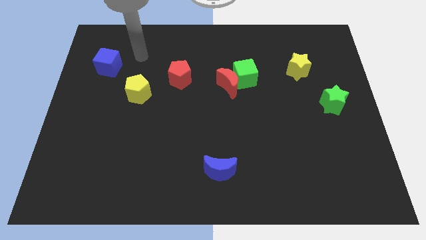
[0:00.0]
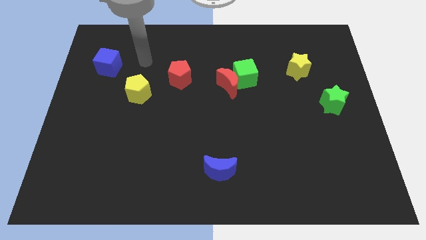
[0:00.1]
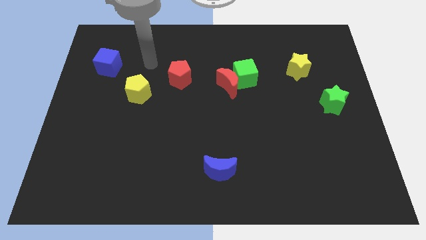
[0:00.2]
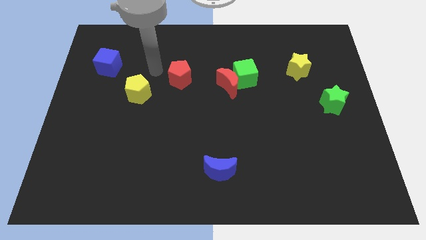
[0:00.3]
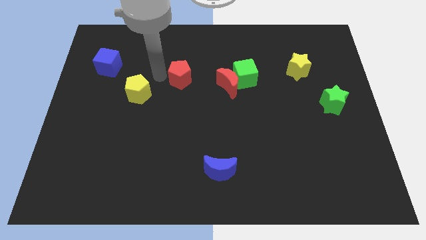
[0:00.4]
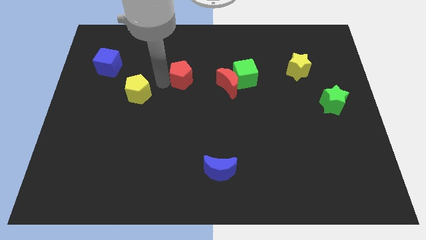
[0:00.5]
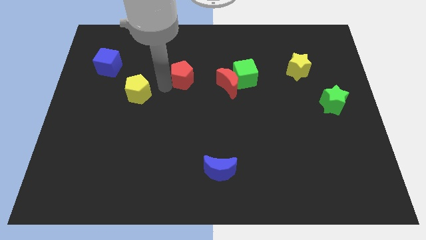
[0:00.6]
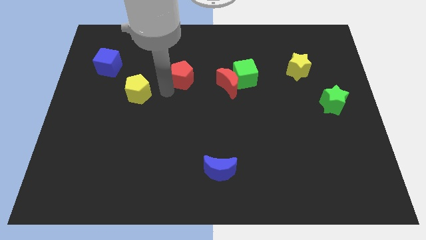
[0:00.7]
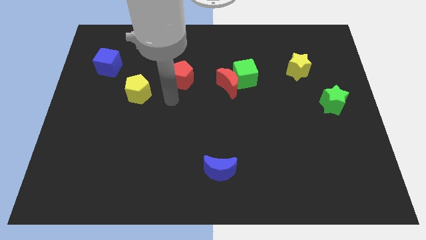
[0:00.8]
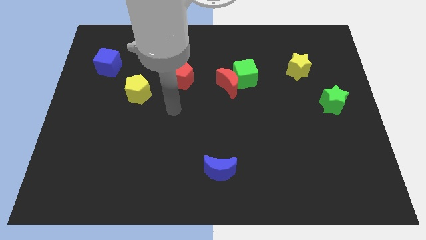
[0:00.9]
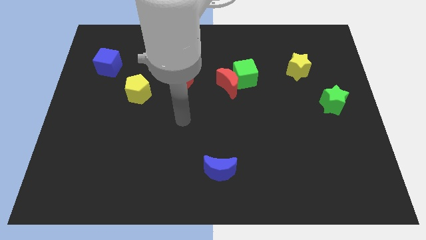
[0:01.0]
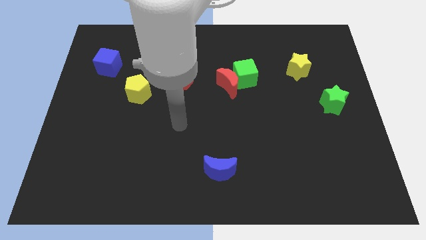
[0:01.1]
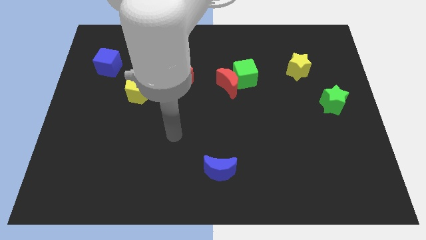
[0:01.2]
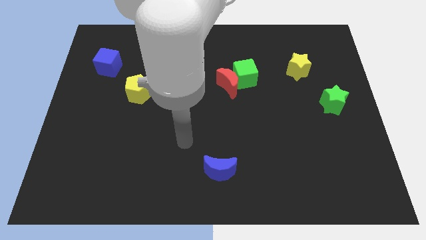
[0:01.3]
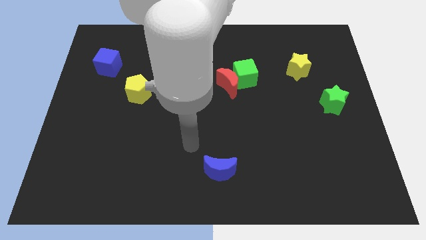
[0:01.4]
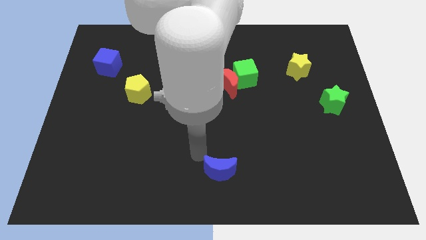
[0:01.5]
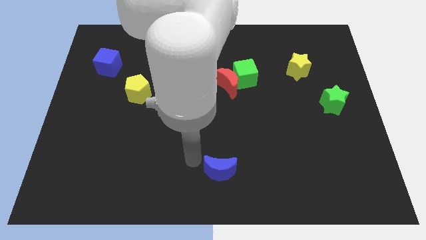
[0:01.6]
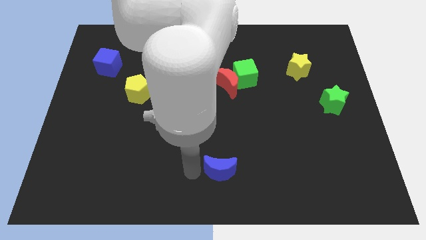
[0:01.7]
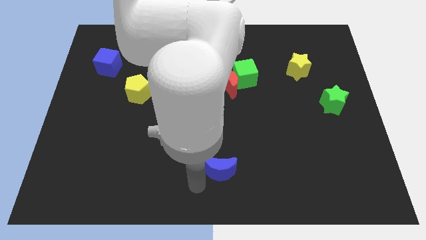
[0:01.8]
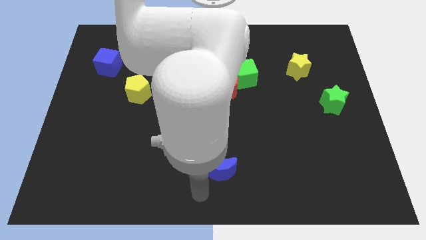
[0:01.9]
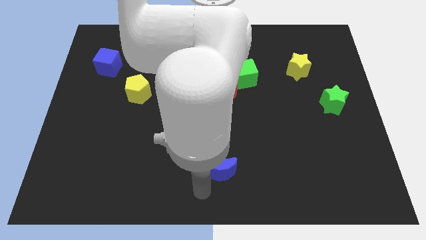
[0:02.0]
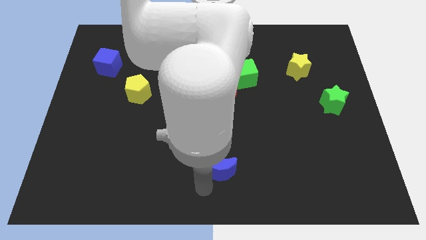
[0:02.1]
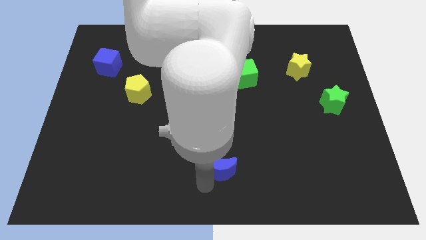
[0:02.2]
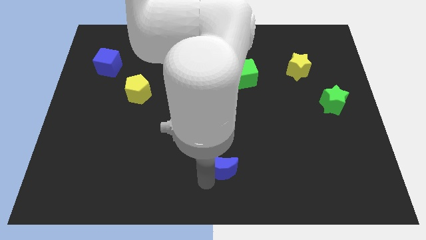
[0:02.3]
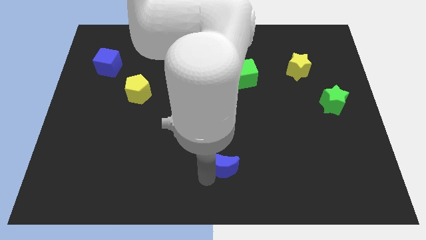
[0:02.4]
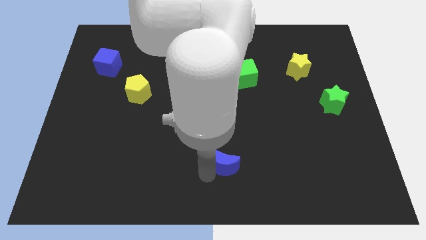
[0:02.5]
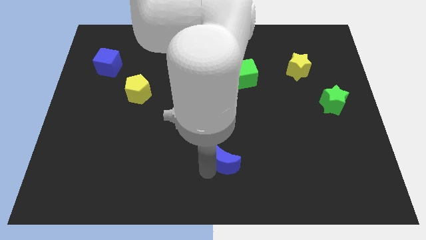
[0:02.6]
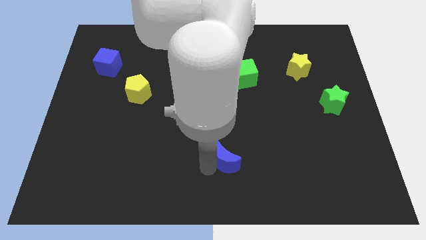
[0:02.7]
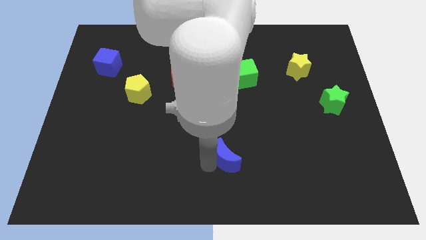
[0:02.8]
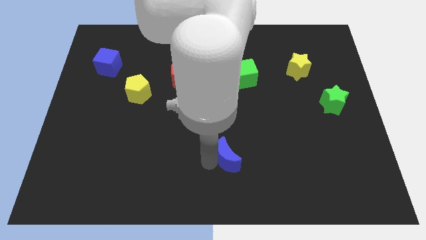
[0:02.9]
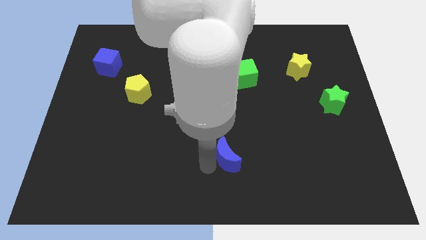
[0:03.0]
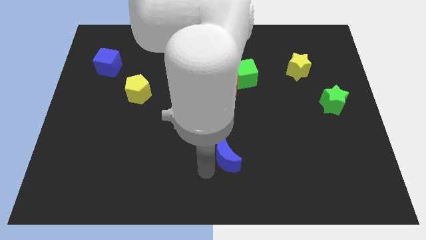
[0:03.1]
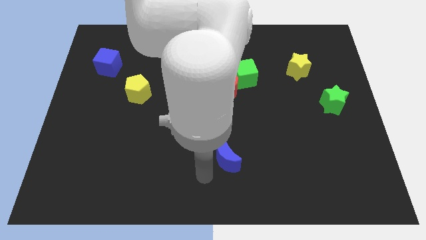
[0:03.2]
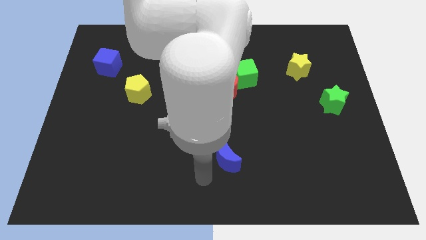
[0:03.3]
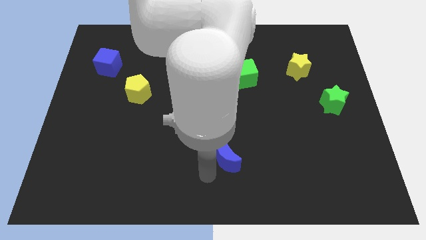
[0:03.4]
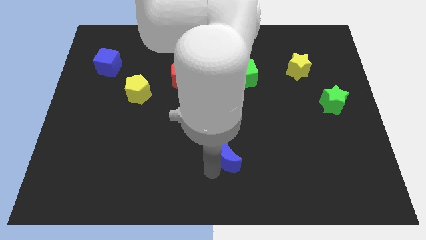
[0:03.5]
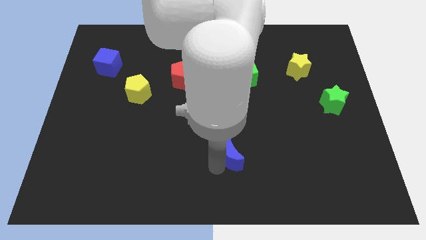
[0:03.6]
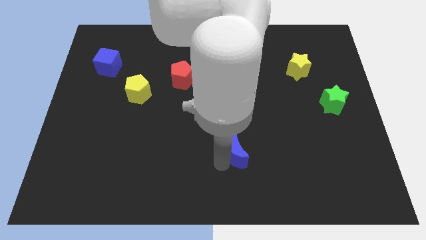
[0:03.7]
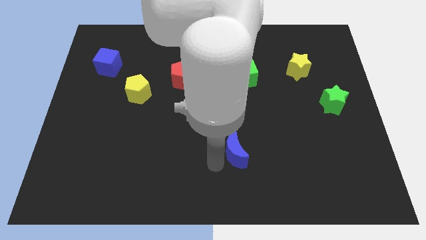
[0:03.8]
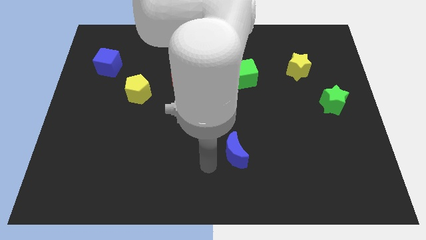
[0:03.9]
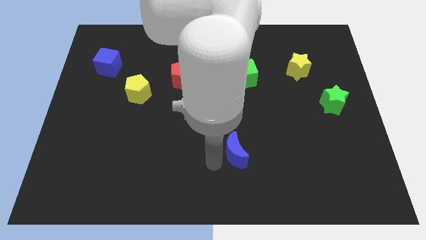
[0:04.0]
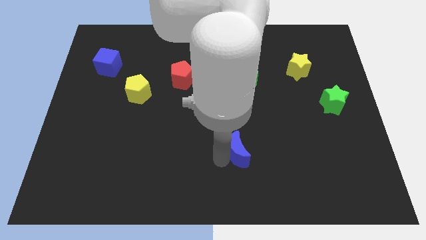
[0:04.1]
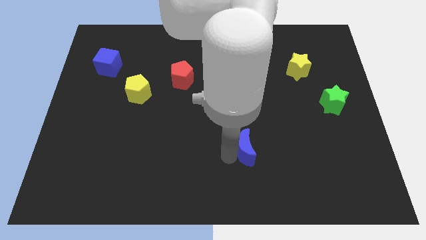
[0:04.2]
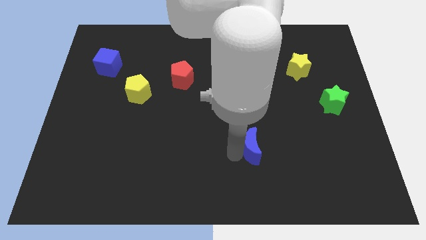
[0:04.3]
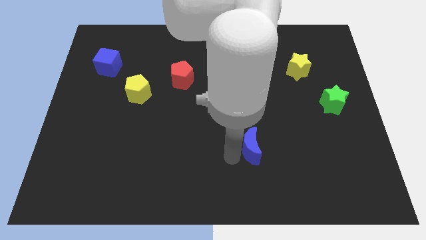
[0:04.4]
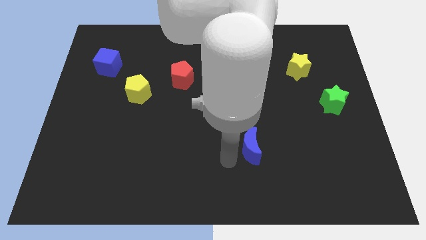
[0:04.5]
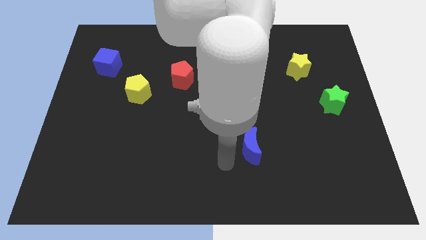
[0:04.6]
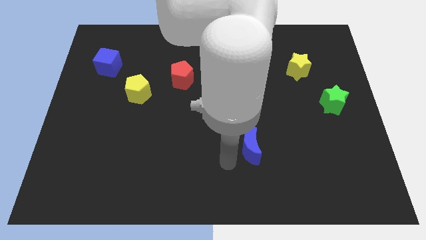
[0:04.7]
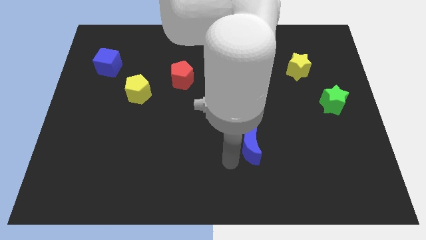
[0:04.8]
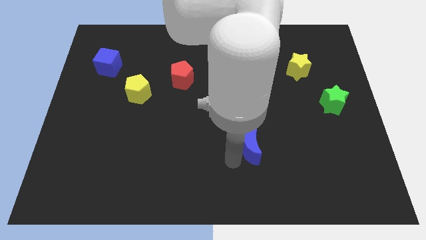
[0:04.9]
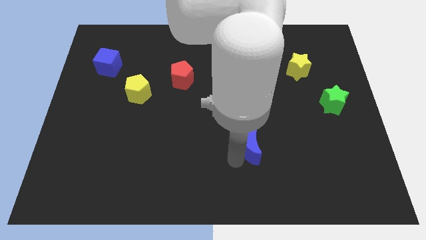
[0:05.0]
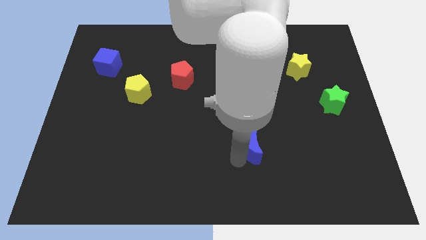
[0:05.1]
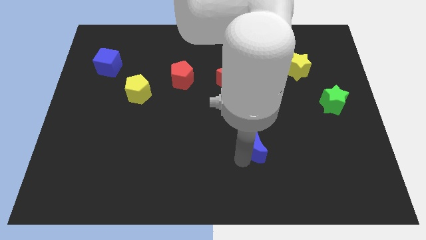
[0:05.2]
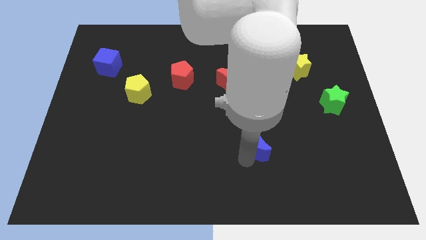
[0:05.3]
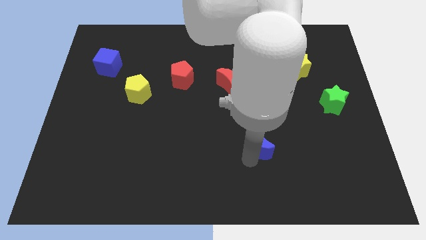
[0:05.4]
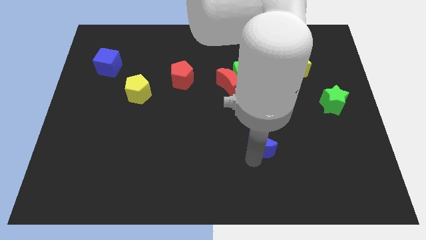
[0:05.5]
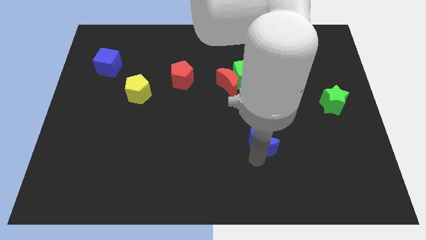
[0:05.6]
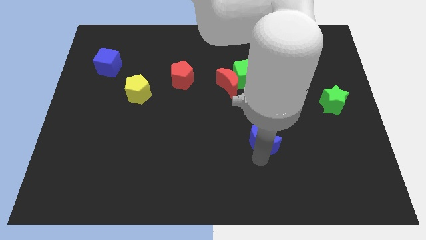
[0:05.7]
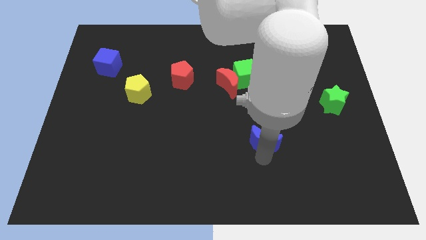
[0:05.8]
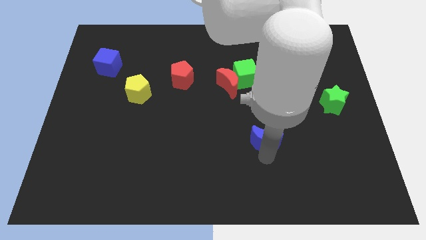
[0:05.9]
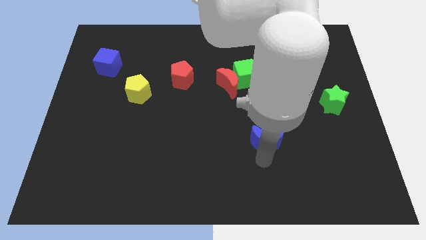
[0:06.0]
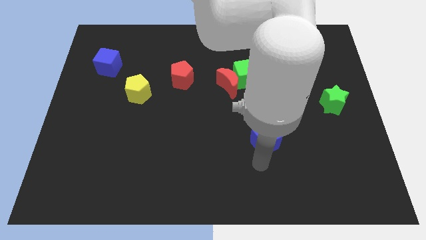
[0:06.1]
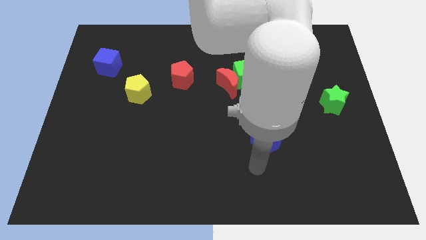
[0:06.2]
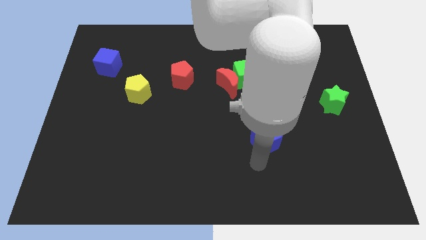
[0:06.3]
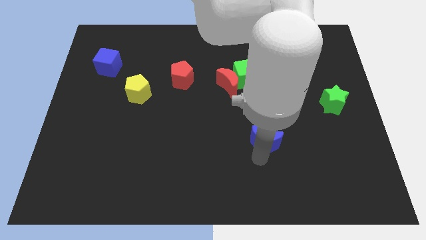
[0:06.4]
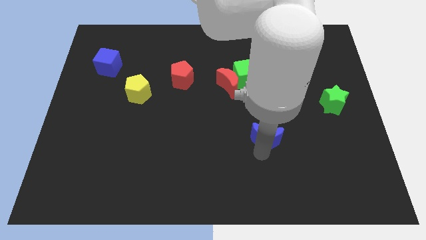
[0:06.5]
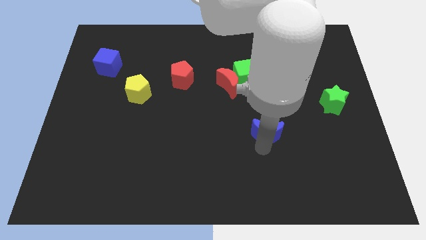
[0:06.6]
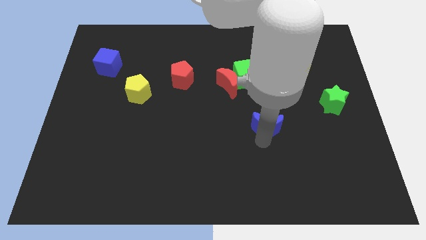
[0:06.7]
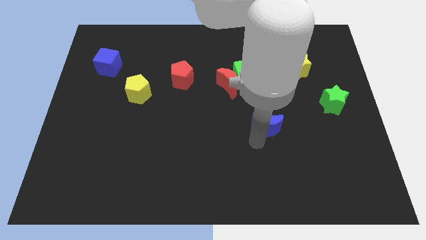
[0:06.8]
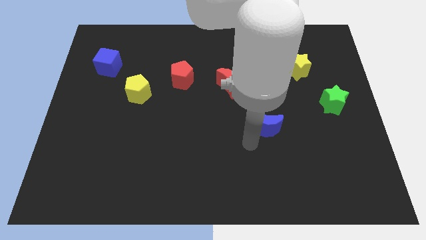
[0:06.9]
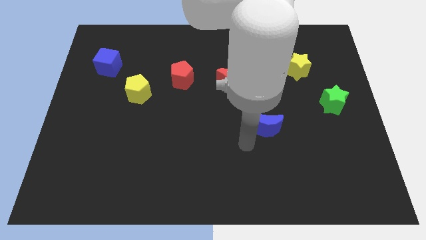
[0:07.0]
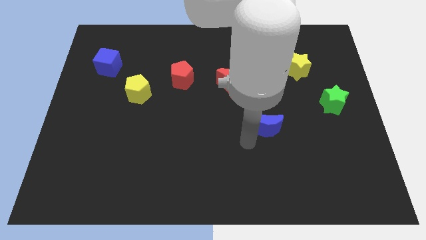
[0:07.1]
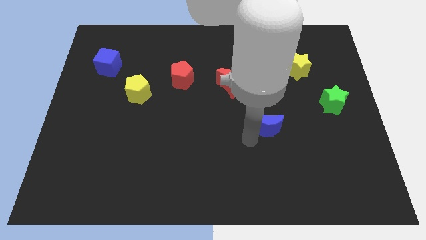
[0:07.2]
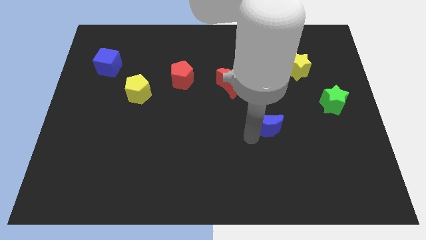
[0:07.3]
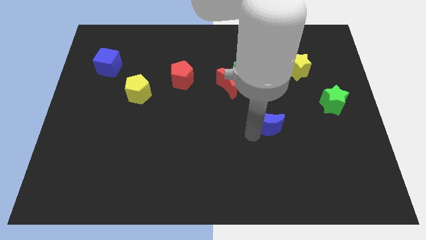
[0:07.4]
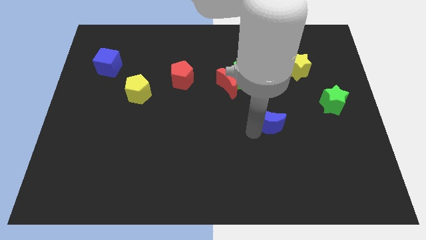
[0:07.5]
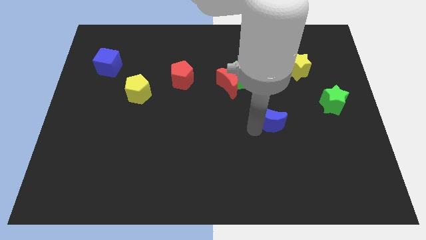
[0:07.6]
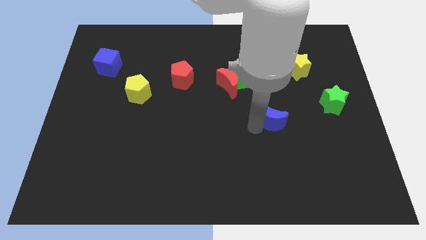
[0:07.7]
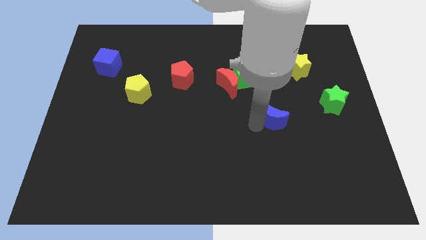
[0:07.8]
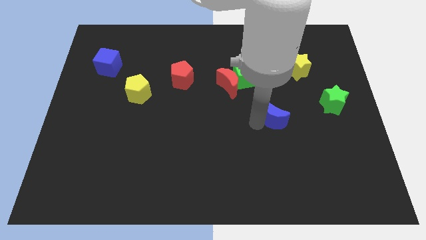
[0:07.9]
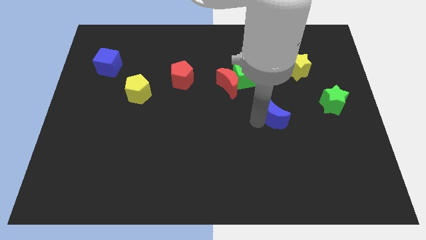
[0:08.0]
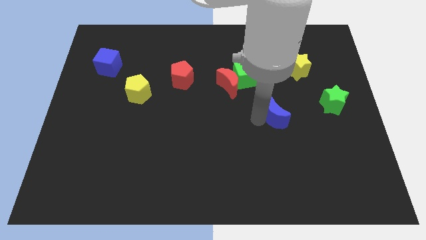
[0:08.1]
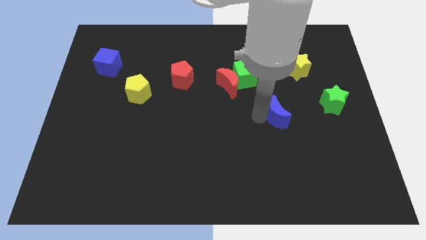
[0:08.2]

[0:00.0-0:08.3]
push the blue moon left of the green star
